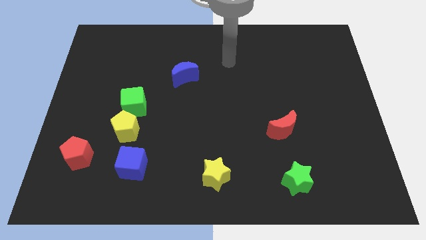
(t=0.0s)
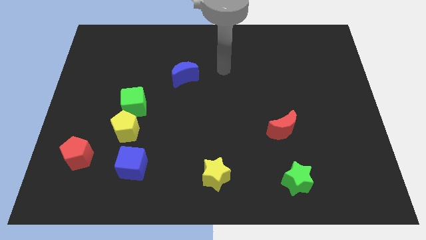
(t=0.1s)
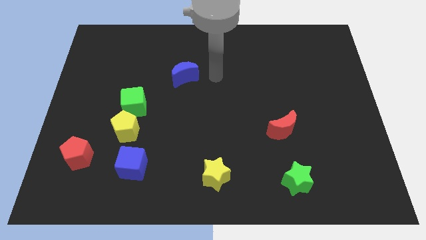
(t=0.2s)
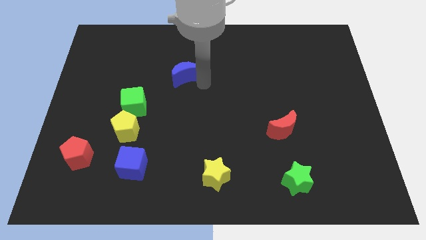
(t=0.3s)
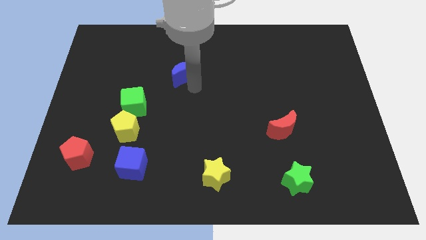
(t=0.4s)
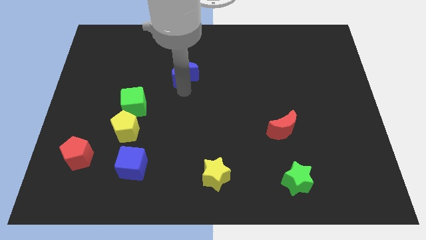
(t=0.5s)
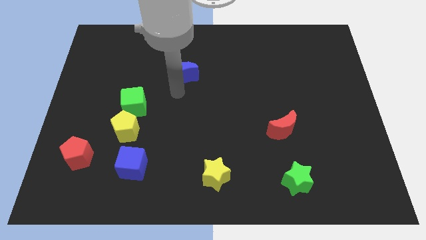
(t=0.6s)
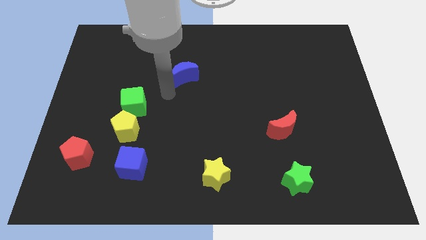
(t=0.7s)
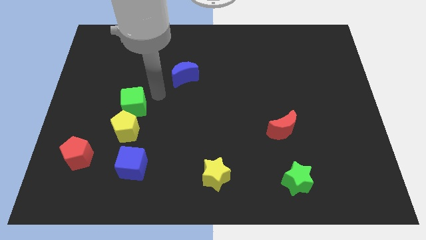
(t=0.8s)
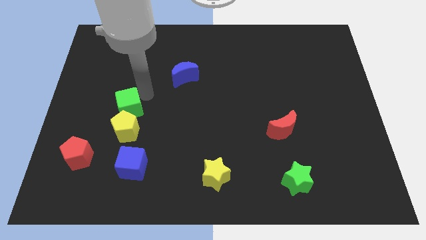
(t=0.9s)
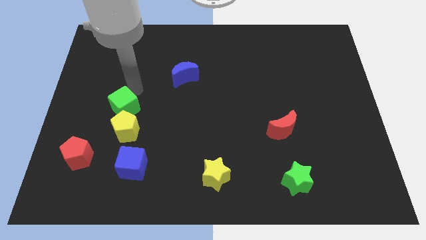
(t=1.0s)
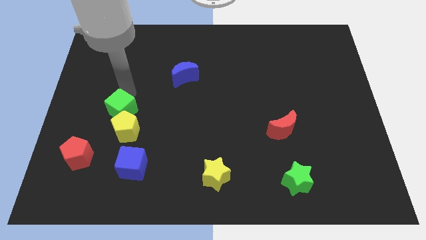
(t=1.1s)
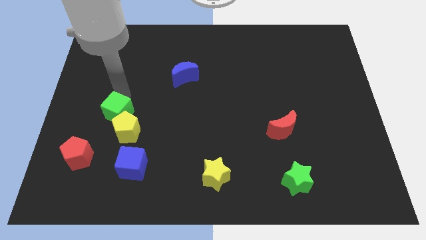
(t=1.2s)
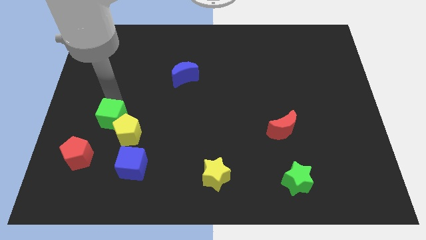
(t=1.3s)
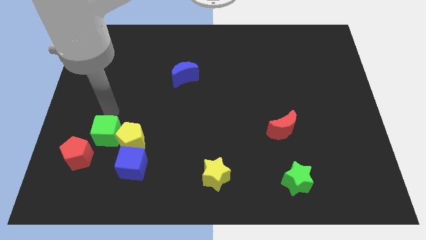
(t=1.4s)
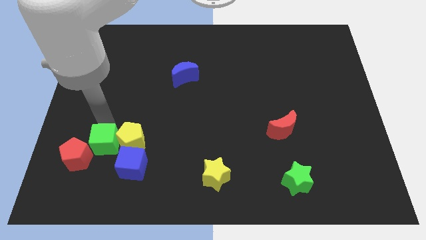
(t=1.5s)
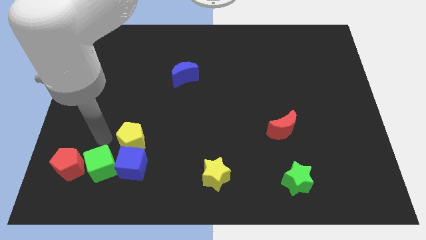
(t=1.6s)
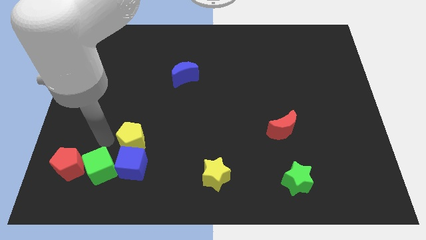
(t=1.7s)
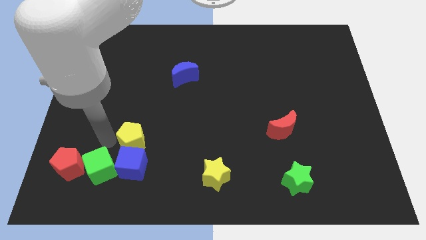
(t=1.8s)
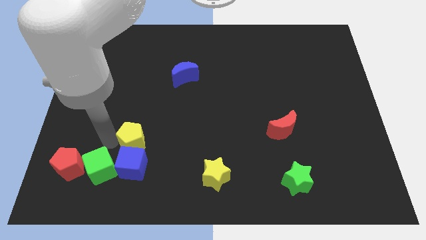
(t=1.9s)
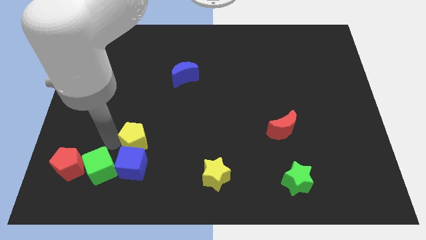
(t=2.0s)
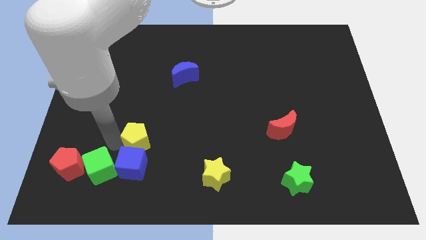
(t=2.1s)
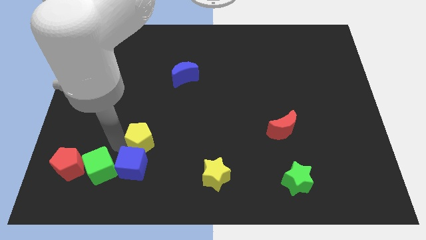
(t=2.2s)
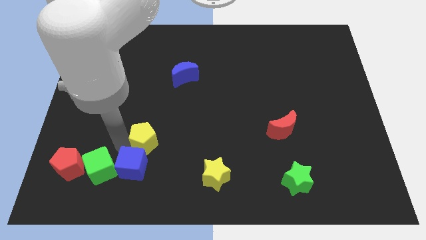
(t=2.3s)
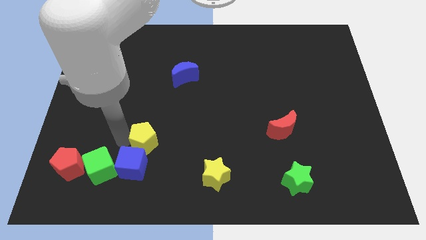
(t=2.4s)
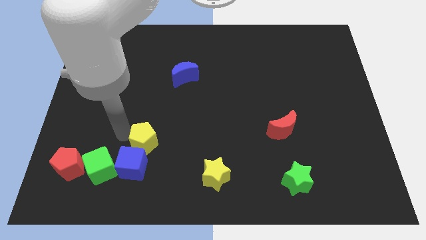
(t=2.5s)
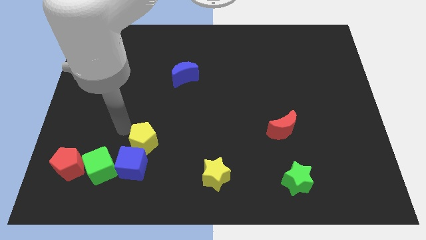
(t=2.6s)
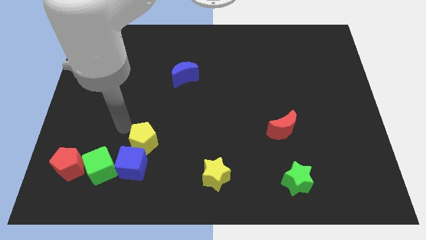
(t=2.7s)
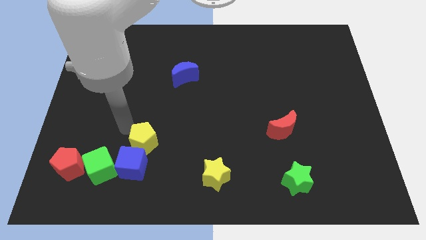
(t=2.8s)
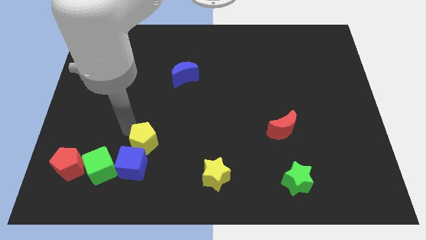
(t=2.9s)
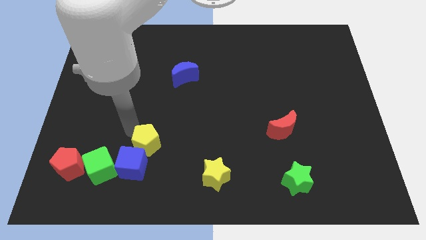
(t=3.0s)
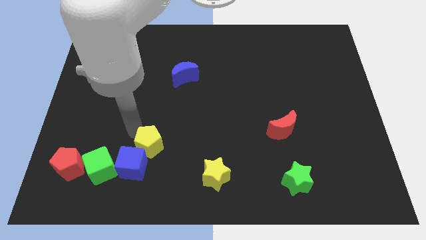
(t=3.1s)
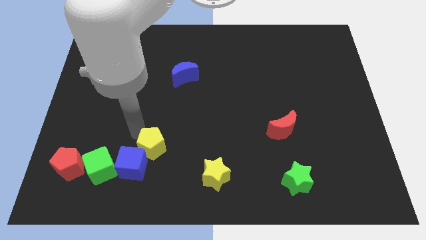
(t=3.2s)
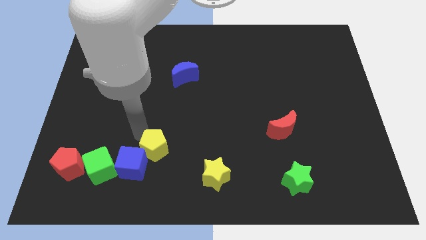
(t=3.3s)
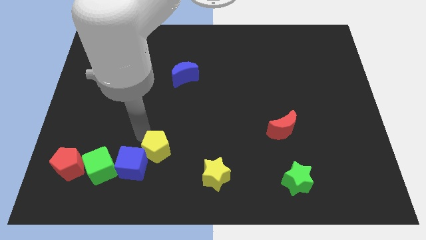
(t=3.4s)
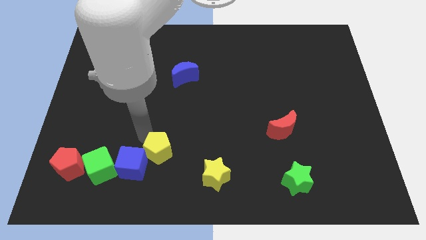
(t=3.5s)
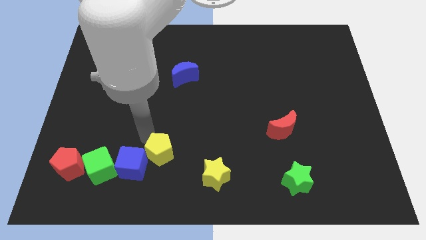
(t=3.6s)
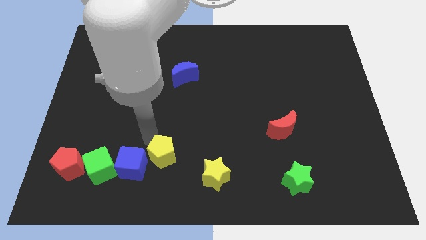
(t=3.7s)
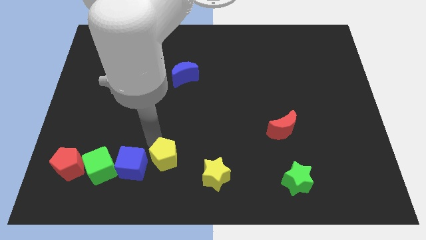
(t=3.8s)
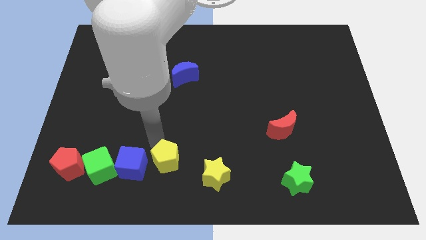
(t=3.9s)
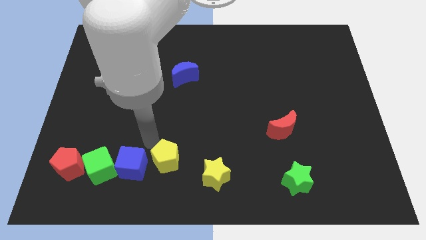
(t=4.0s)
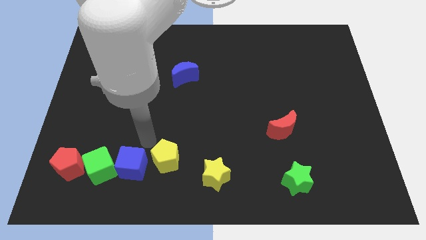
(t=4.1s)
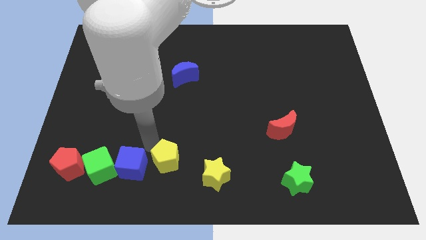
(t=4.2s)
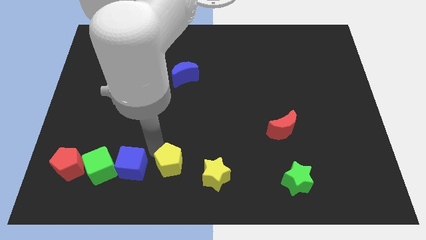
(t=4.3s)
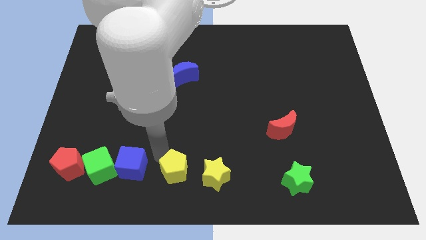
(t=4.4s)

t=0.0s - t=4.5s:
slide the yellow pentagon to the bottom side

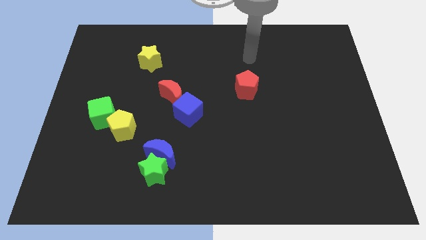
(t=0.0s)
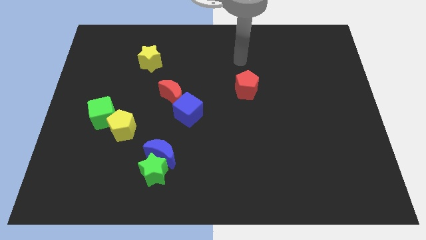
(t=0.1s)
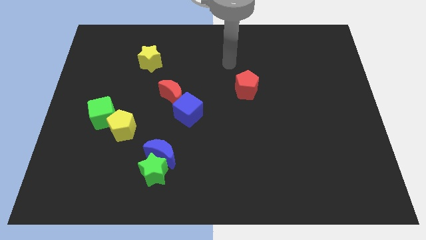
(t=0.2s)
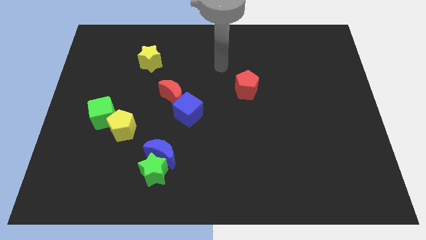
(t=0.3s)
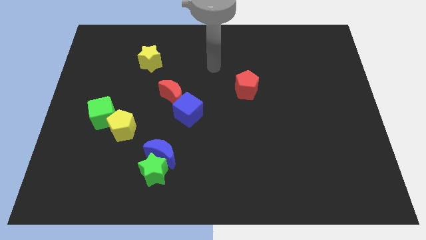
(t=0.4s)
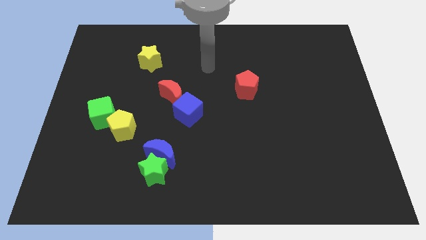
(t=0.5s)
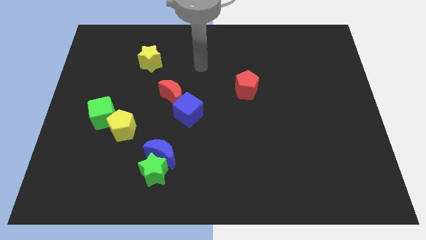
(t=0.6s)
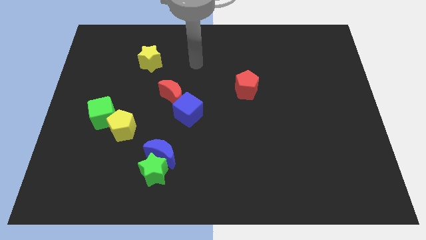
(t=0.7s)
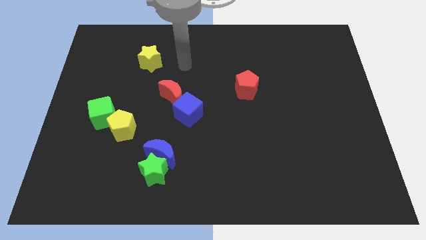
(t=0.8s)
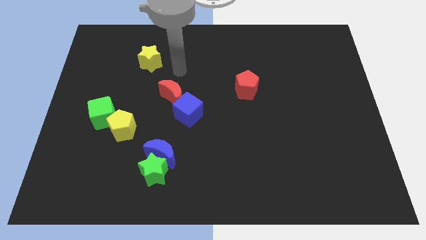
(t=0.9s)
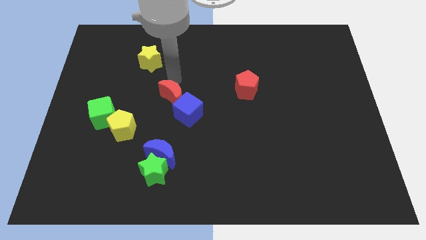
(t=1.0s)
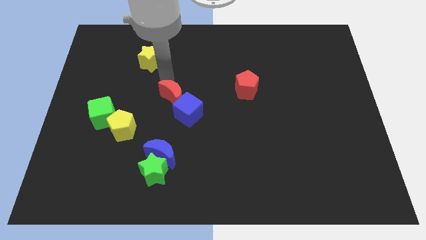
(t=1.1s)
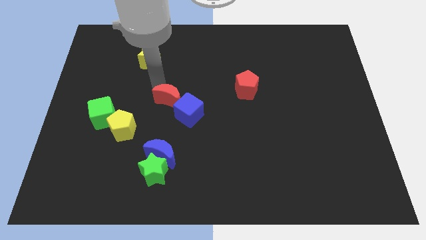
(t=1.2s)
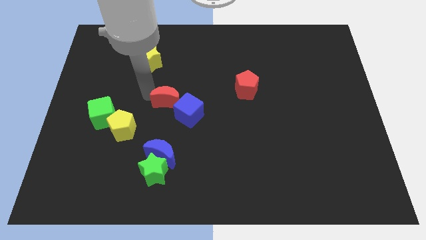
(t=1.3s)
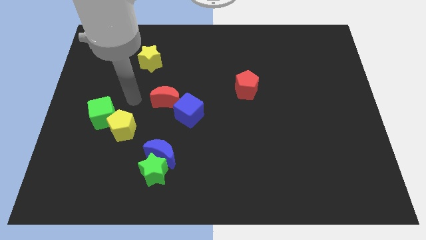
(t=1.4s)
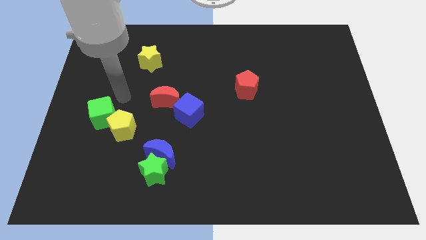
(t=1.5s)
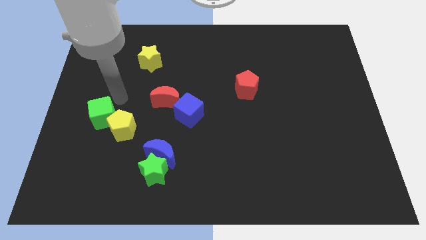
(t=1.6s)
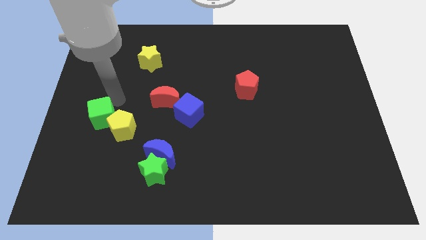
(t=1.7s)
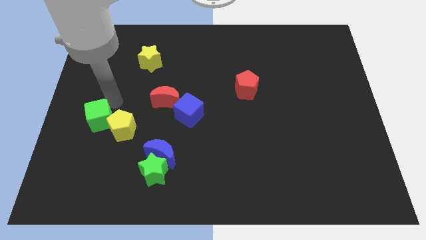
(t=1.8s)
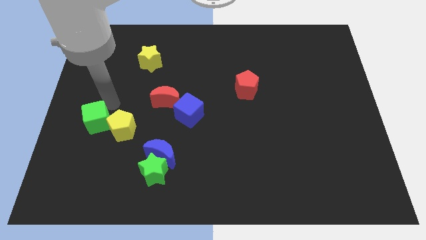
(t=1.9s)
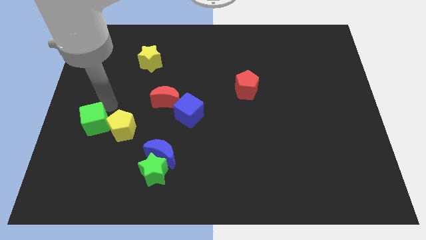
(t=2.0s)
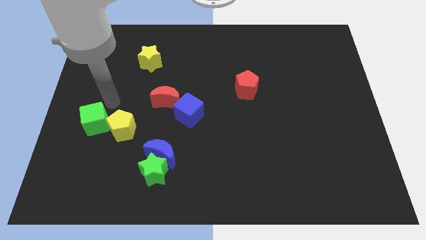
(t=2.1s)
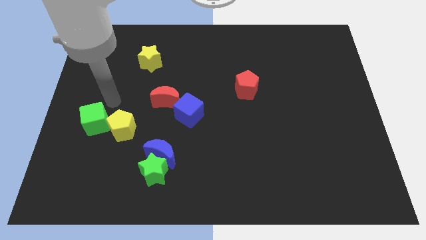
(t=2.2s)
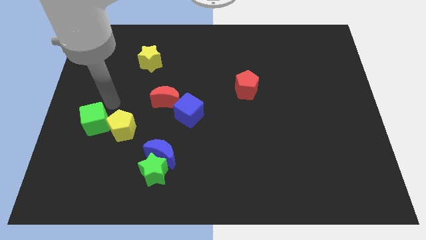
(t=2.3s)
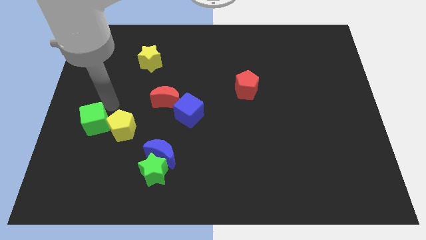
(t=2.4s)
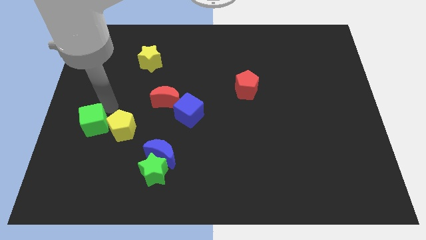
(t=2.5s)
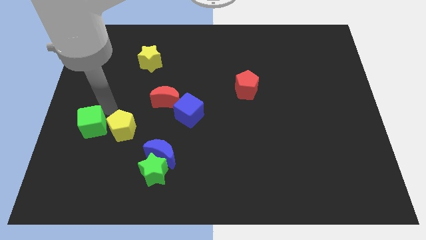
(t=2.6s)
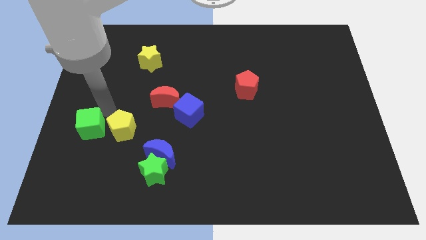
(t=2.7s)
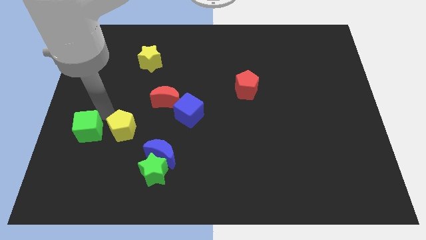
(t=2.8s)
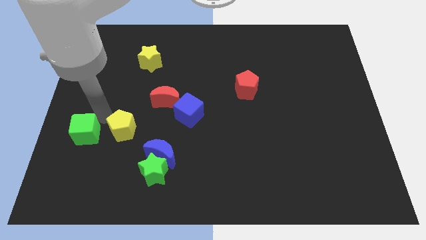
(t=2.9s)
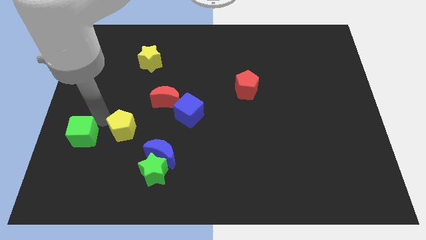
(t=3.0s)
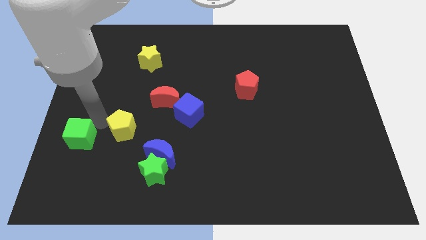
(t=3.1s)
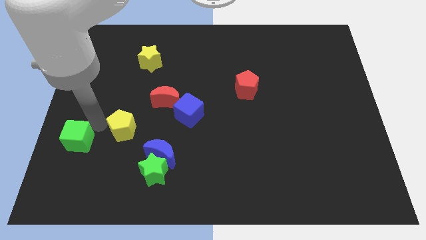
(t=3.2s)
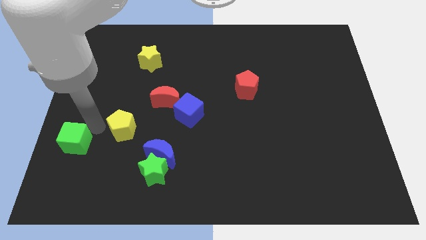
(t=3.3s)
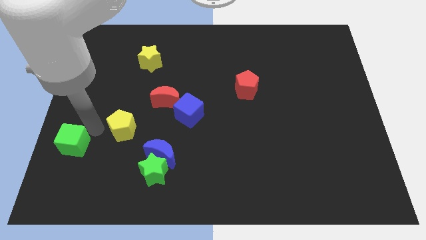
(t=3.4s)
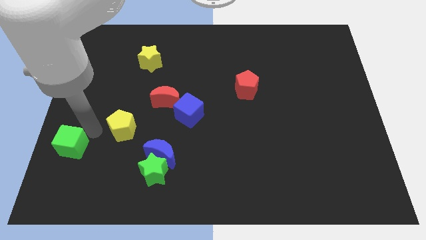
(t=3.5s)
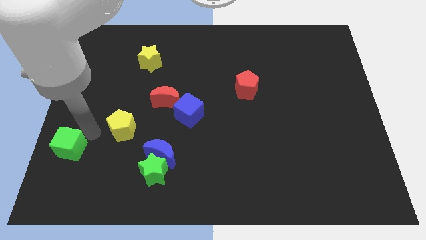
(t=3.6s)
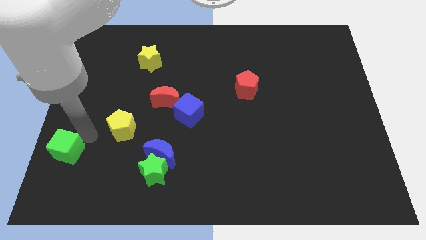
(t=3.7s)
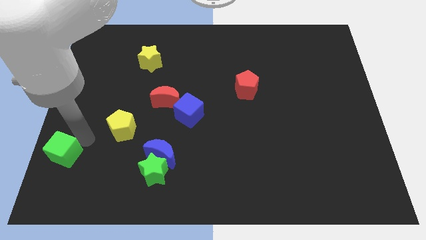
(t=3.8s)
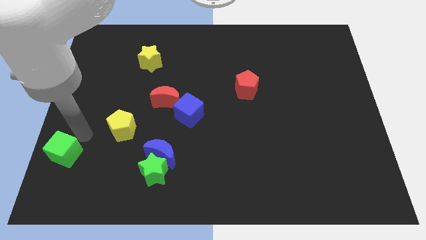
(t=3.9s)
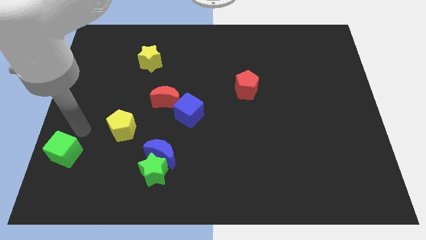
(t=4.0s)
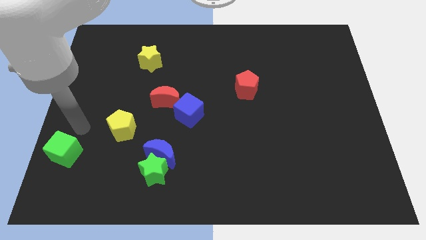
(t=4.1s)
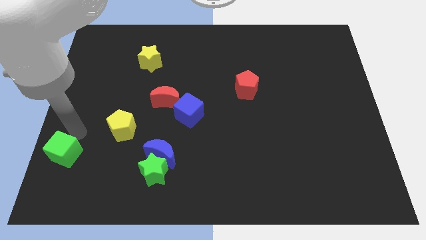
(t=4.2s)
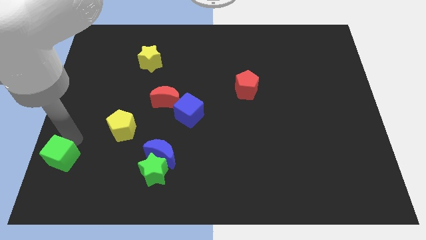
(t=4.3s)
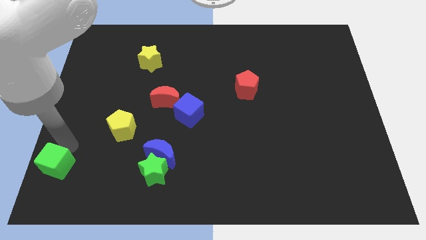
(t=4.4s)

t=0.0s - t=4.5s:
move the green cube to the bottom left
